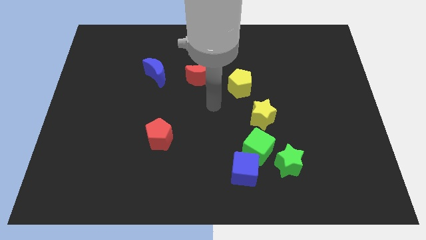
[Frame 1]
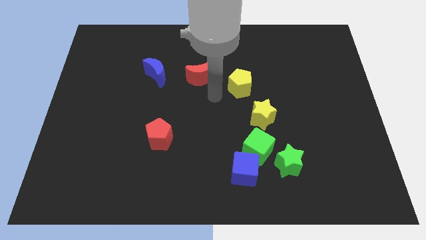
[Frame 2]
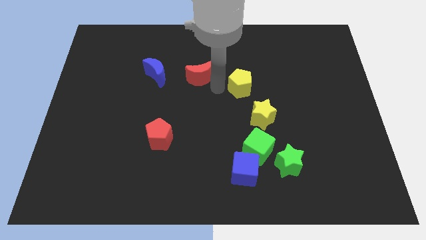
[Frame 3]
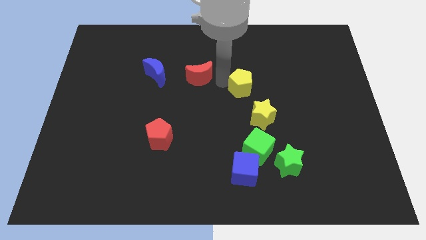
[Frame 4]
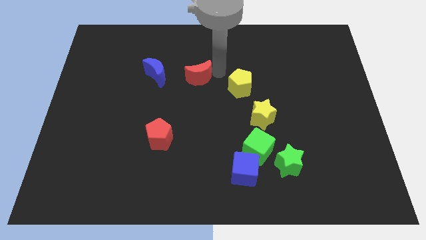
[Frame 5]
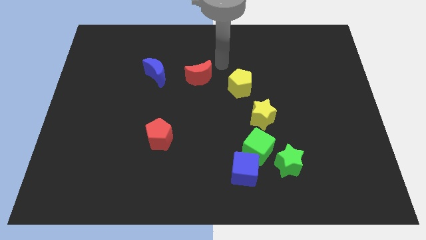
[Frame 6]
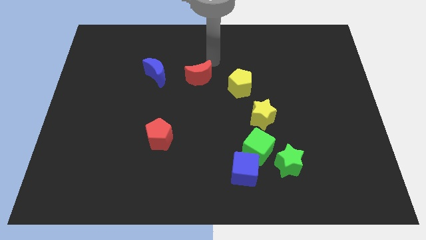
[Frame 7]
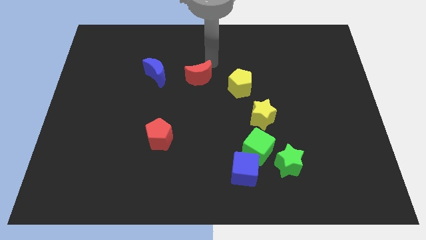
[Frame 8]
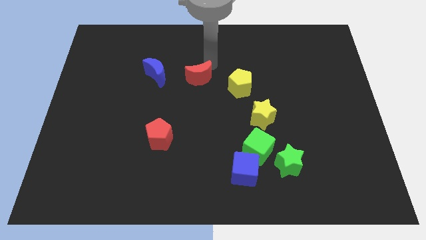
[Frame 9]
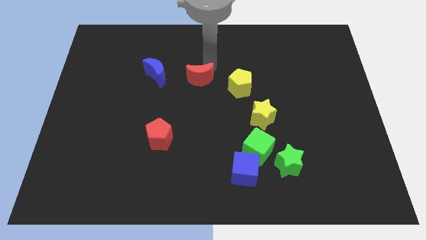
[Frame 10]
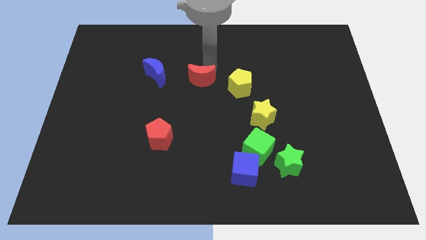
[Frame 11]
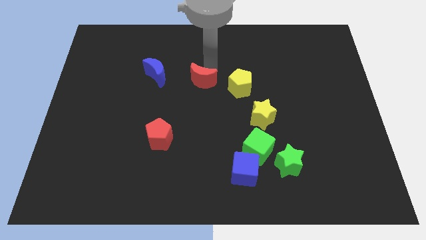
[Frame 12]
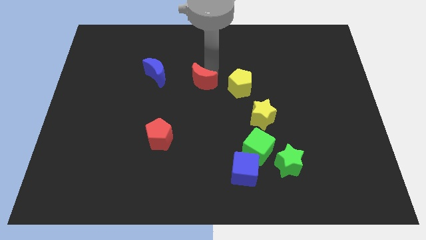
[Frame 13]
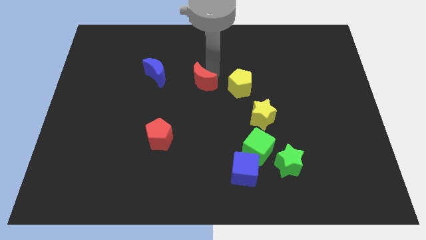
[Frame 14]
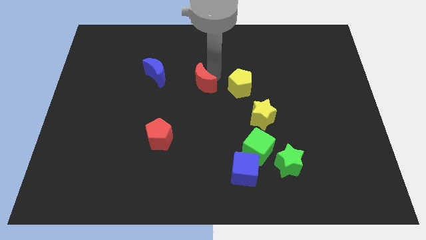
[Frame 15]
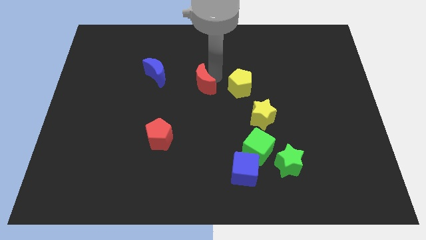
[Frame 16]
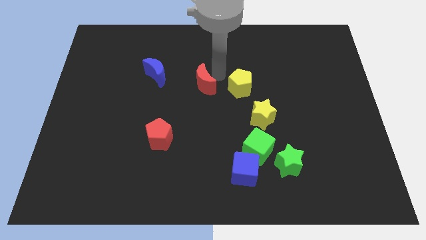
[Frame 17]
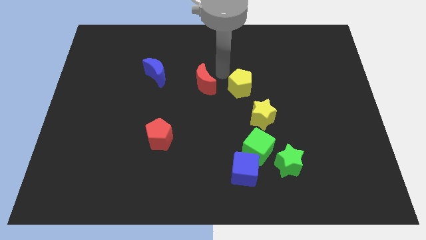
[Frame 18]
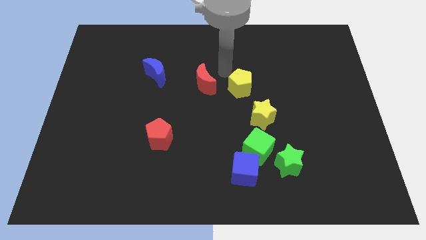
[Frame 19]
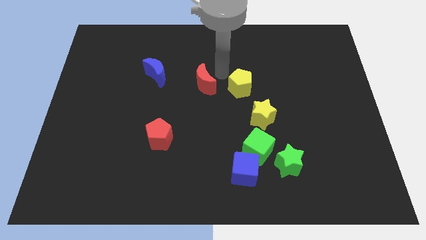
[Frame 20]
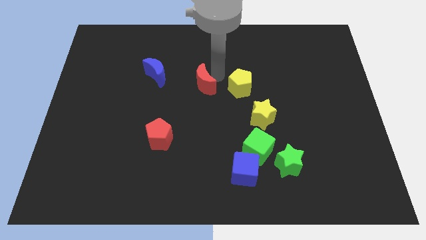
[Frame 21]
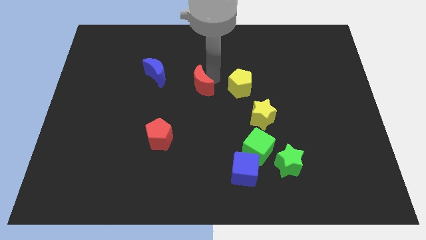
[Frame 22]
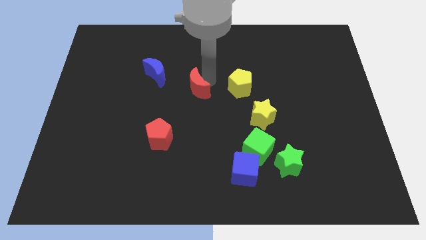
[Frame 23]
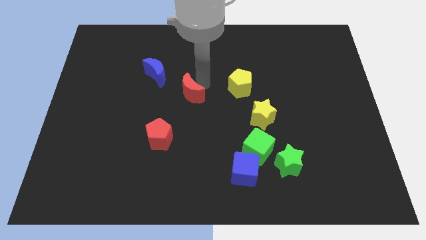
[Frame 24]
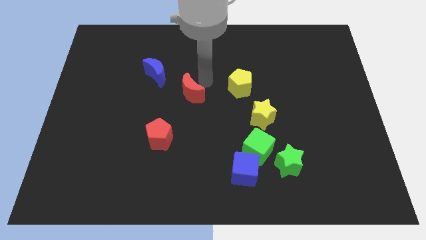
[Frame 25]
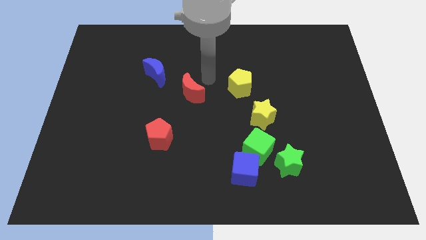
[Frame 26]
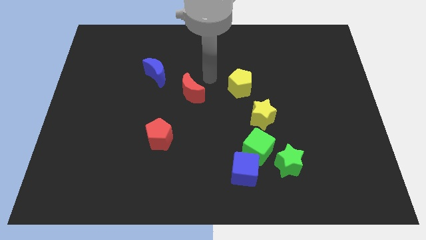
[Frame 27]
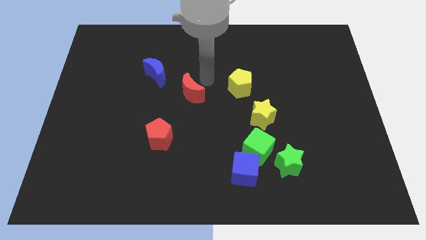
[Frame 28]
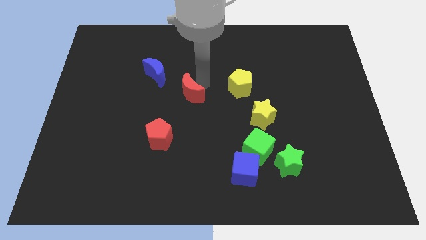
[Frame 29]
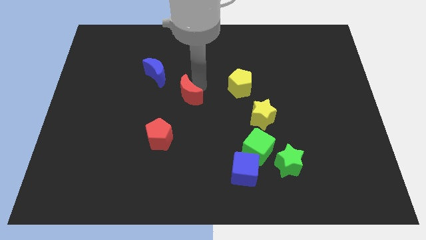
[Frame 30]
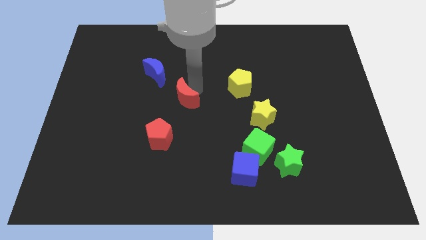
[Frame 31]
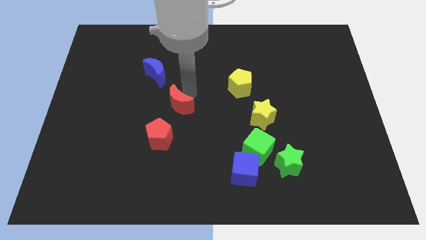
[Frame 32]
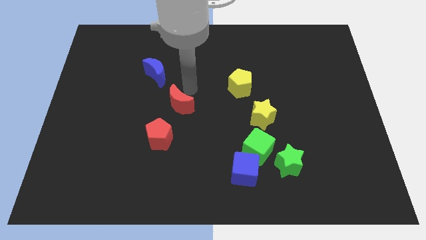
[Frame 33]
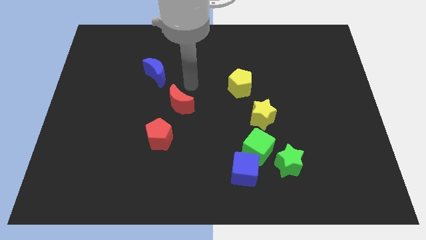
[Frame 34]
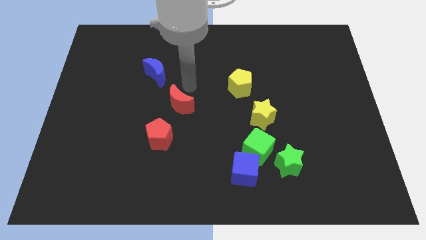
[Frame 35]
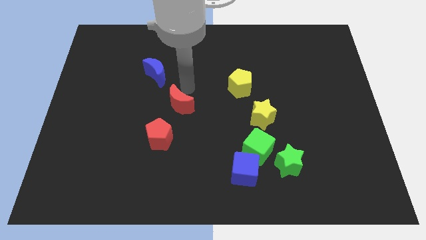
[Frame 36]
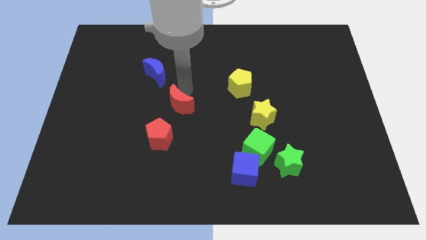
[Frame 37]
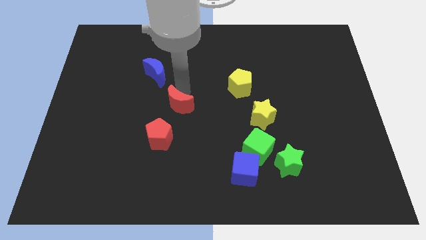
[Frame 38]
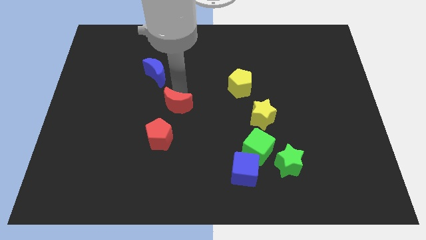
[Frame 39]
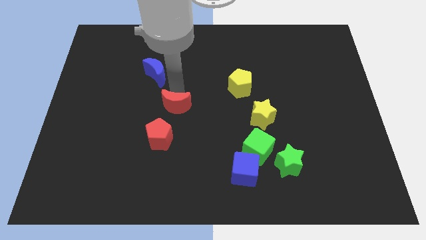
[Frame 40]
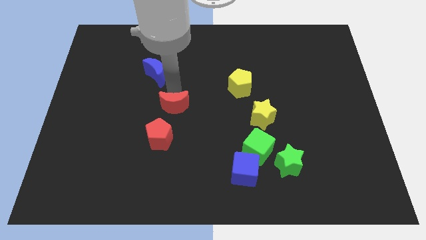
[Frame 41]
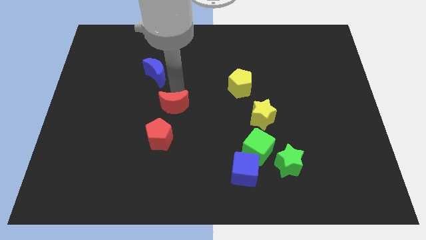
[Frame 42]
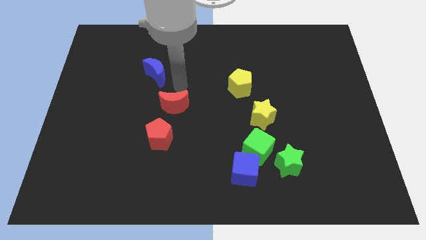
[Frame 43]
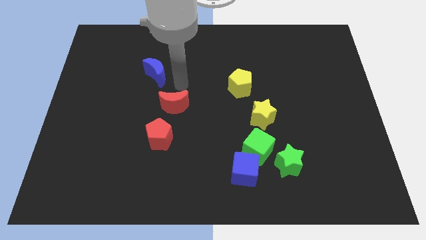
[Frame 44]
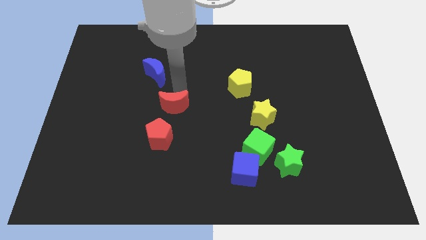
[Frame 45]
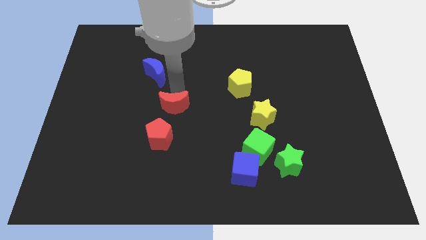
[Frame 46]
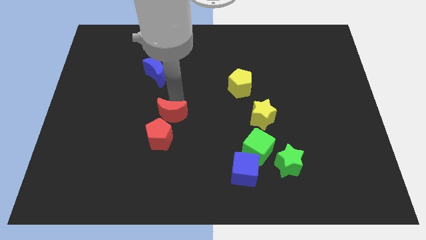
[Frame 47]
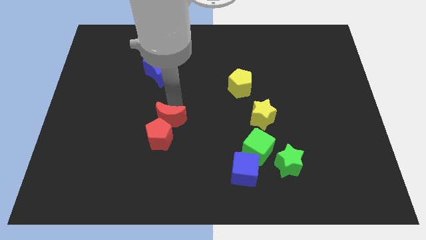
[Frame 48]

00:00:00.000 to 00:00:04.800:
slide the red moon close to the red pentagon

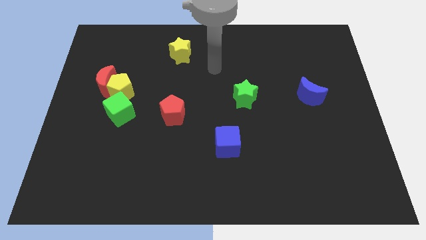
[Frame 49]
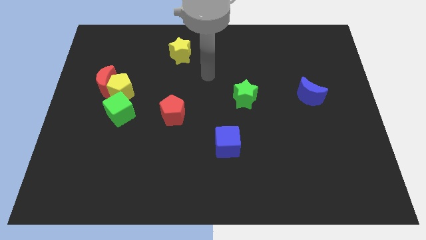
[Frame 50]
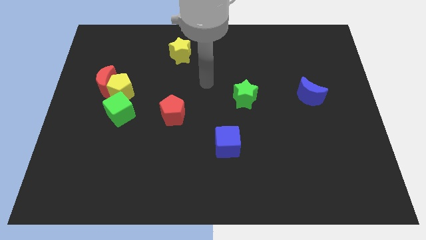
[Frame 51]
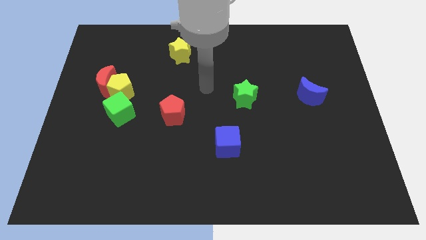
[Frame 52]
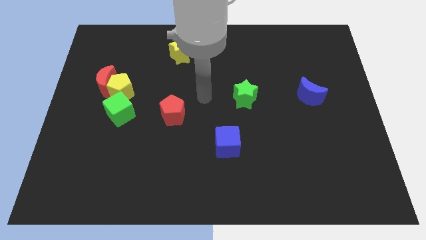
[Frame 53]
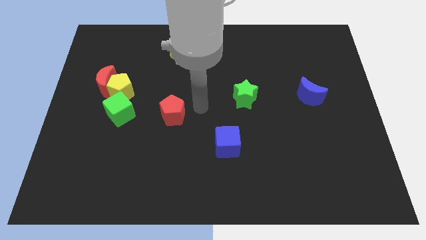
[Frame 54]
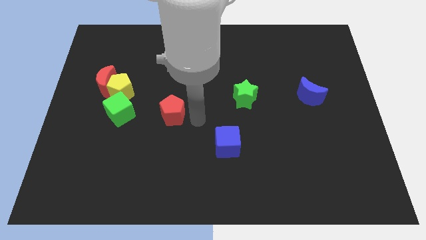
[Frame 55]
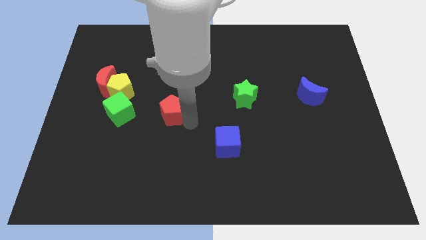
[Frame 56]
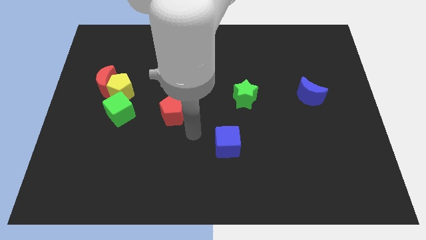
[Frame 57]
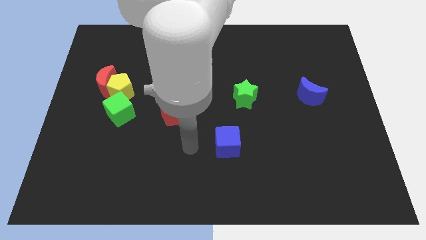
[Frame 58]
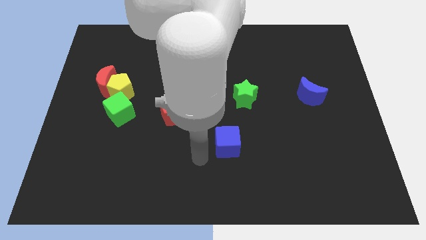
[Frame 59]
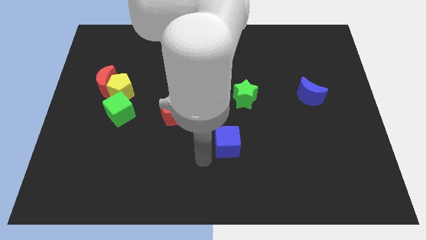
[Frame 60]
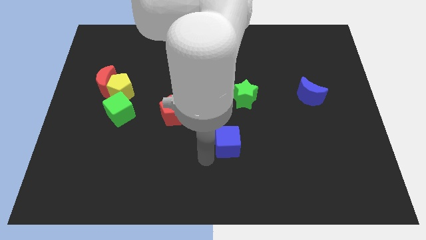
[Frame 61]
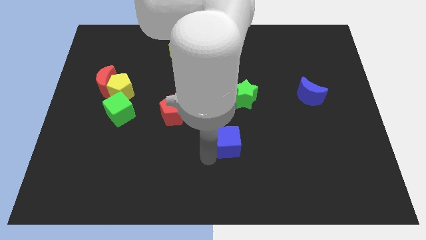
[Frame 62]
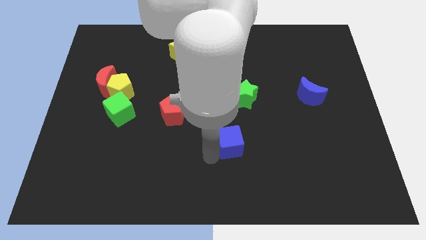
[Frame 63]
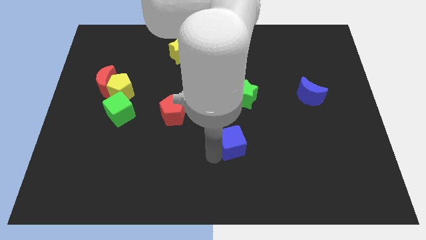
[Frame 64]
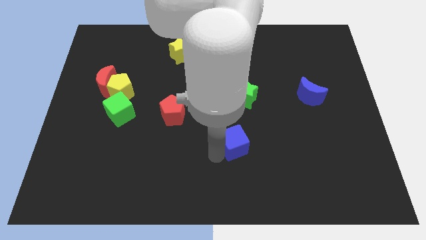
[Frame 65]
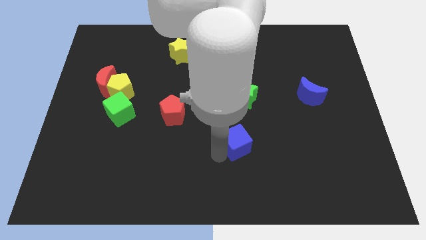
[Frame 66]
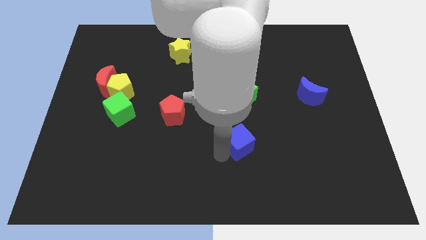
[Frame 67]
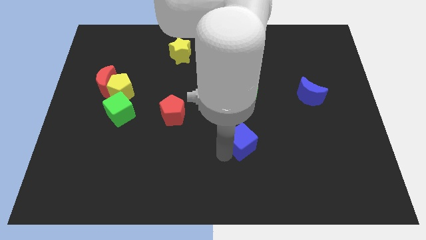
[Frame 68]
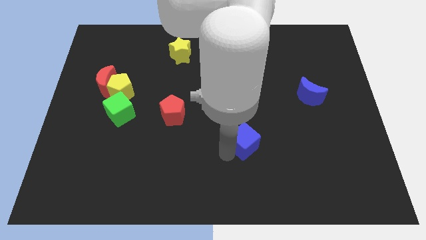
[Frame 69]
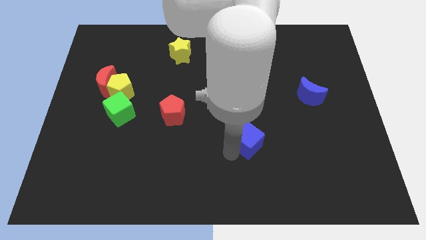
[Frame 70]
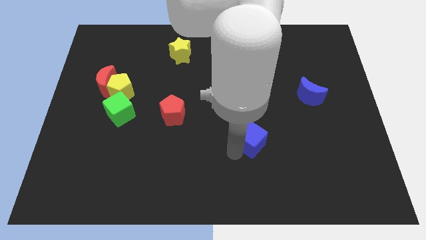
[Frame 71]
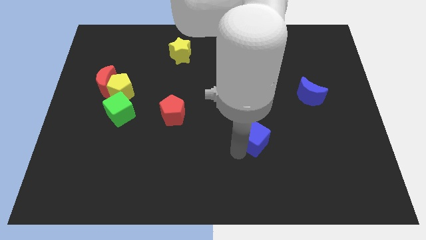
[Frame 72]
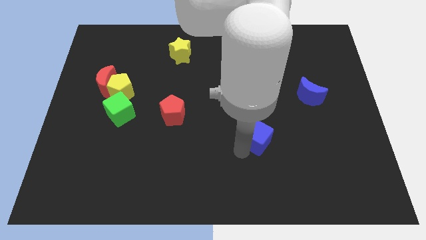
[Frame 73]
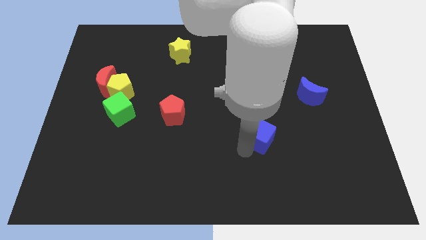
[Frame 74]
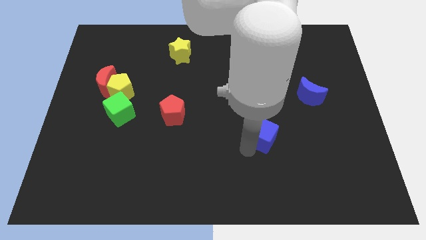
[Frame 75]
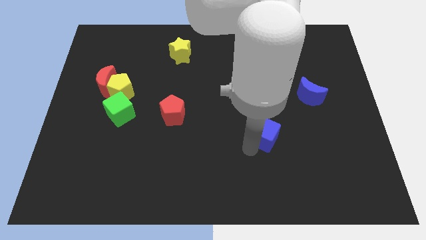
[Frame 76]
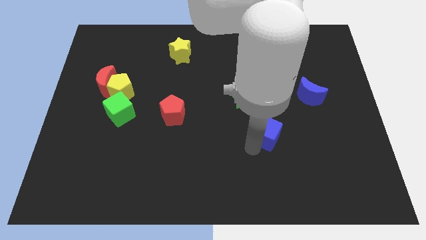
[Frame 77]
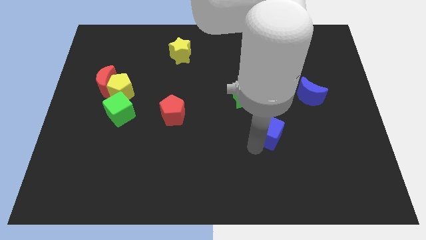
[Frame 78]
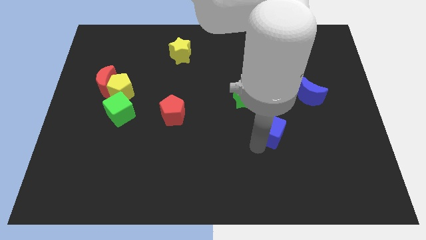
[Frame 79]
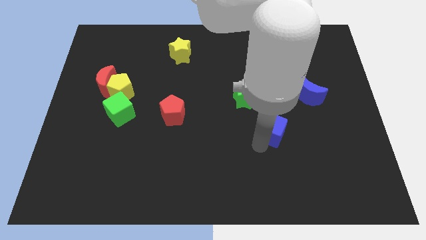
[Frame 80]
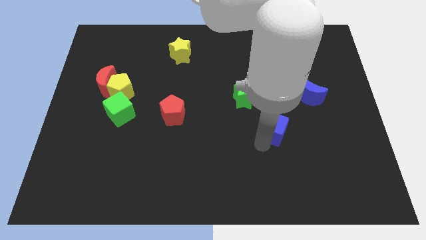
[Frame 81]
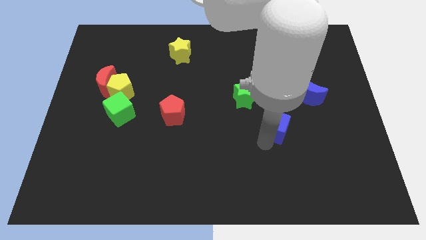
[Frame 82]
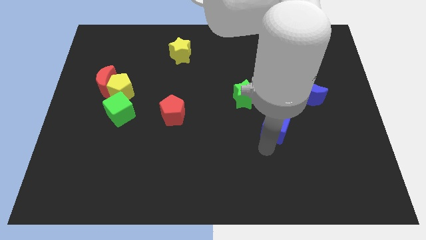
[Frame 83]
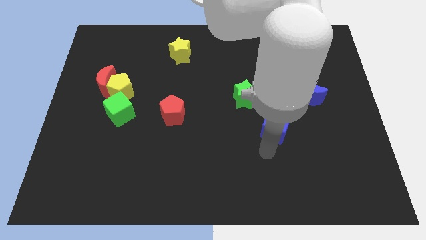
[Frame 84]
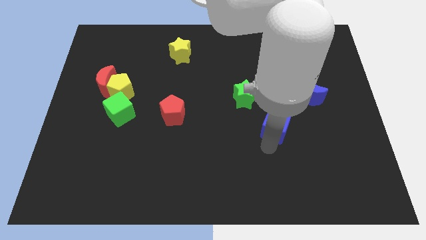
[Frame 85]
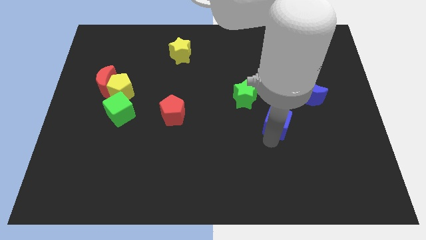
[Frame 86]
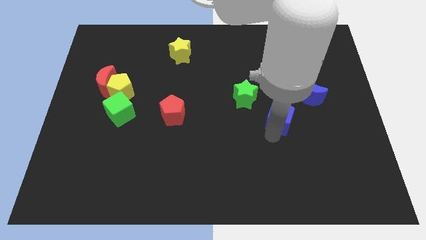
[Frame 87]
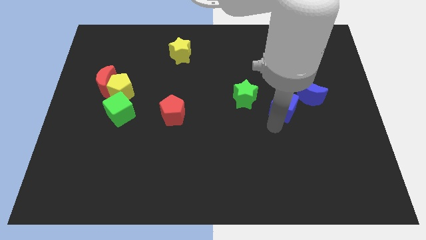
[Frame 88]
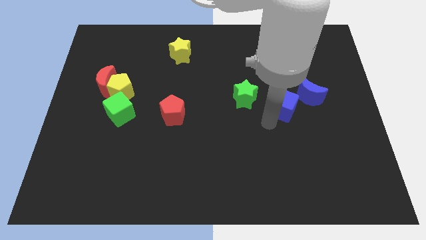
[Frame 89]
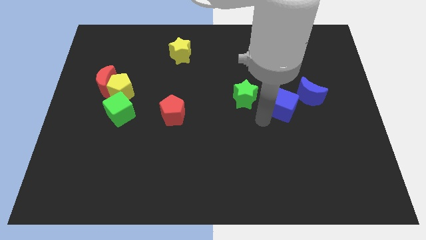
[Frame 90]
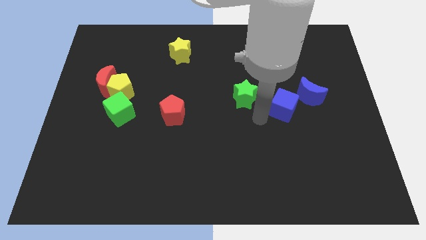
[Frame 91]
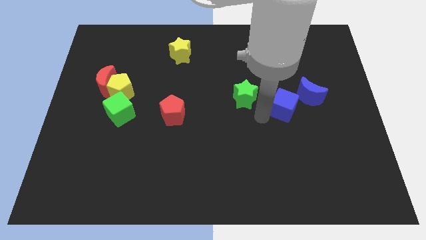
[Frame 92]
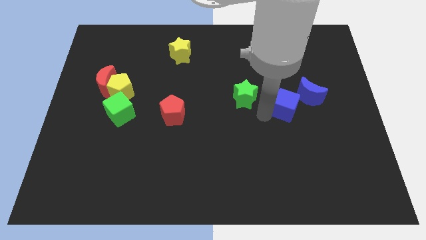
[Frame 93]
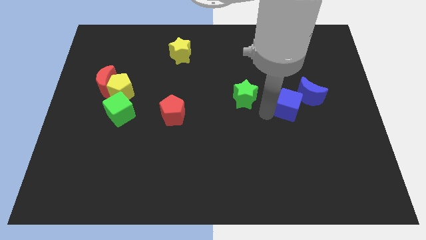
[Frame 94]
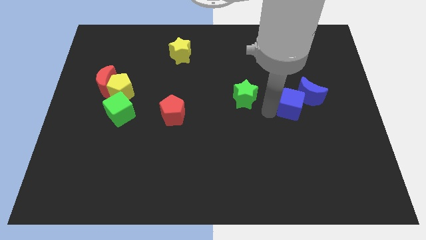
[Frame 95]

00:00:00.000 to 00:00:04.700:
move the blue cube close to the blue moon
